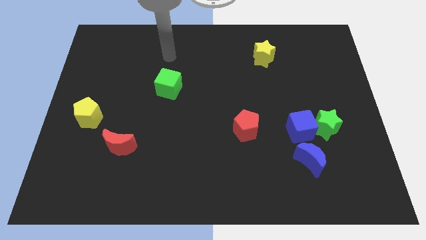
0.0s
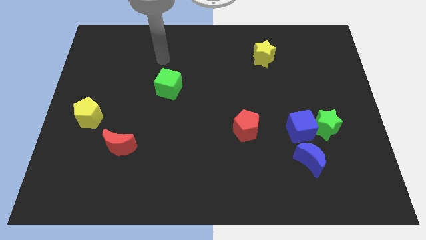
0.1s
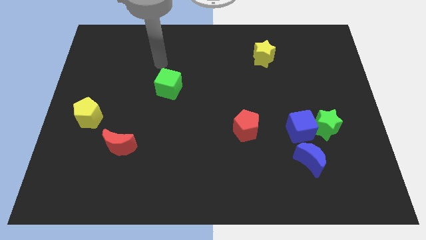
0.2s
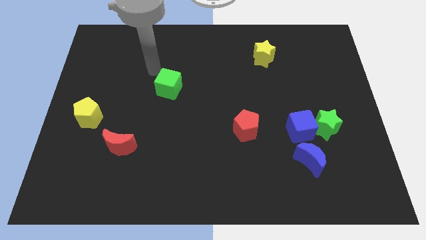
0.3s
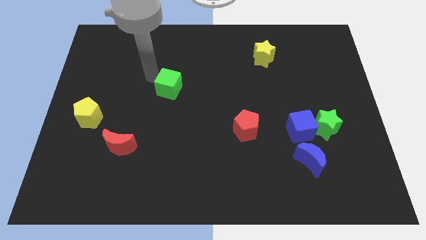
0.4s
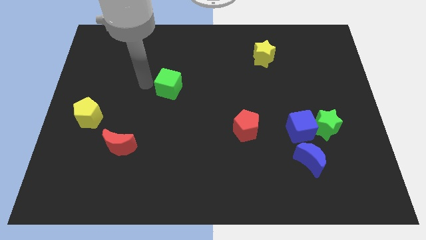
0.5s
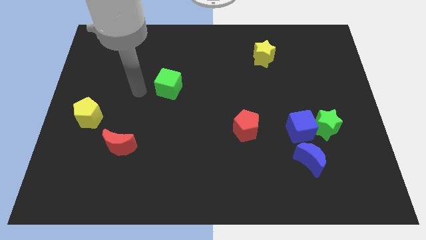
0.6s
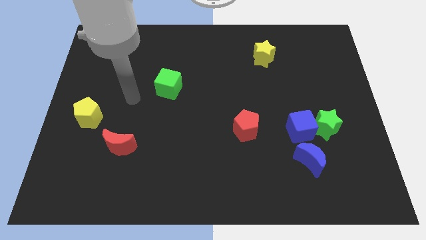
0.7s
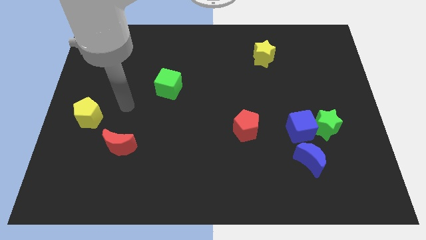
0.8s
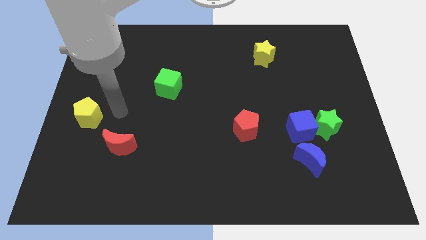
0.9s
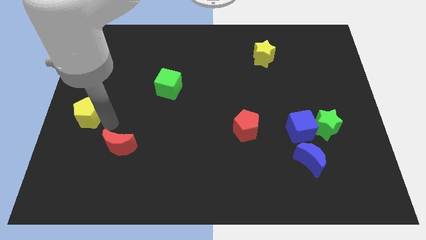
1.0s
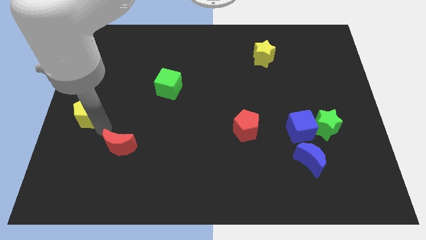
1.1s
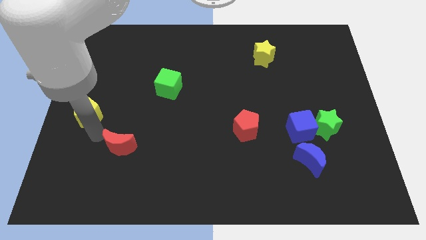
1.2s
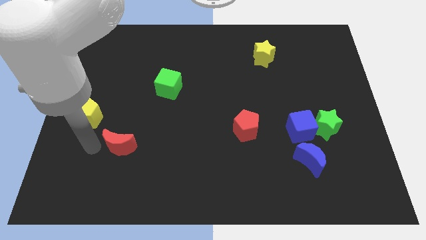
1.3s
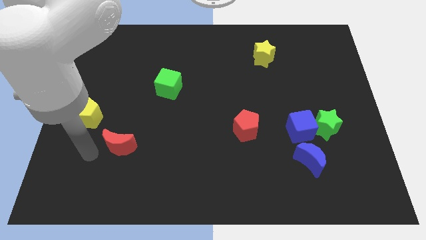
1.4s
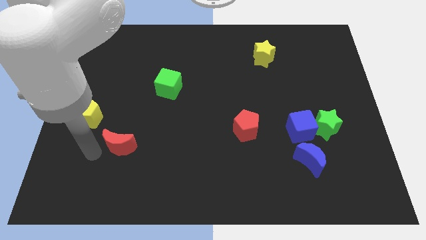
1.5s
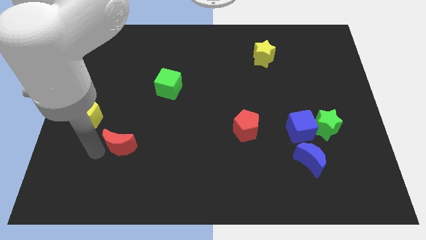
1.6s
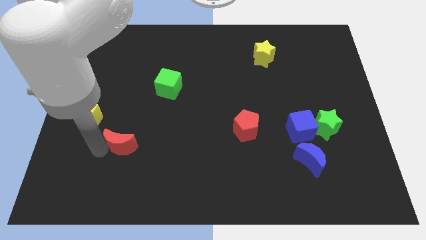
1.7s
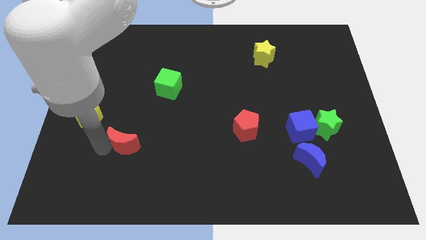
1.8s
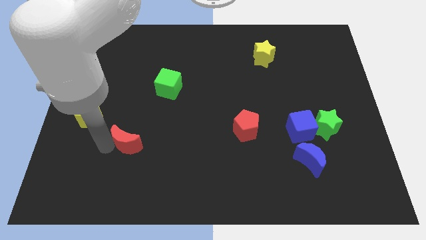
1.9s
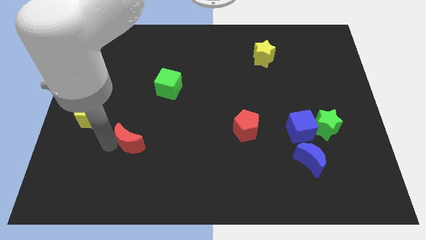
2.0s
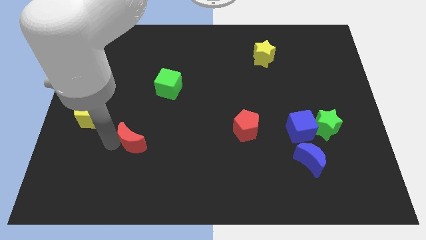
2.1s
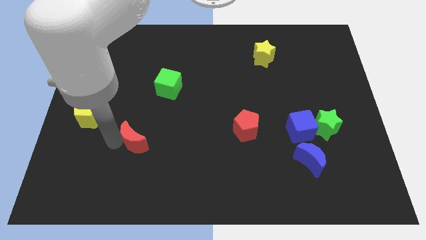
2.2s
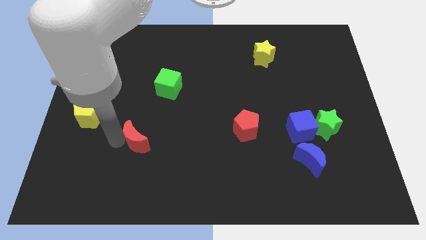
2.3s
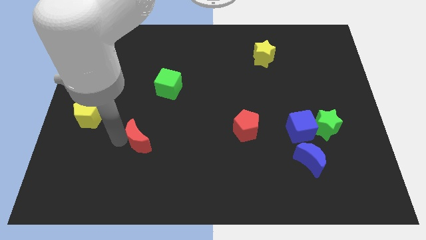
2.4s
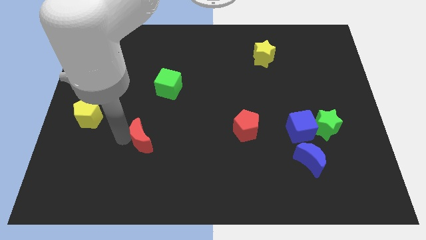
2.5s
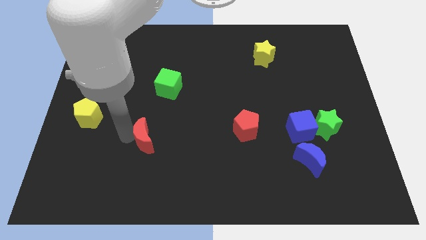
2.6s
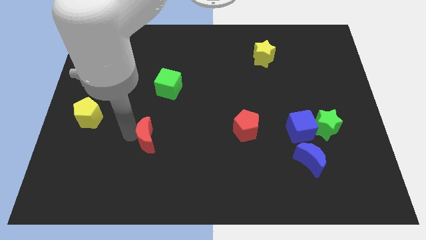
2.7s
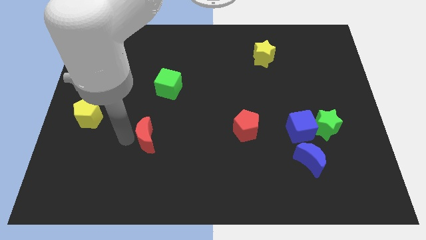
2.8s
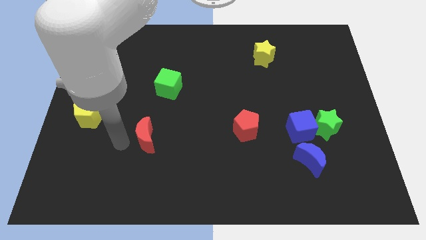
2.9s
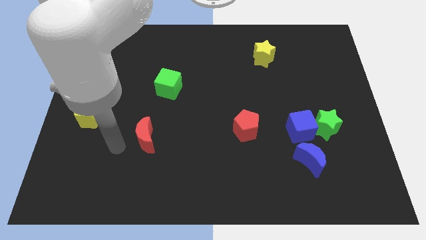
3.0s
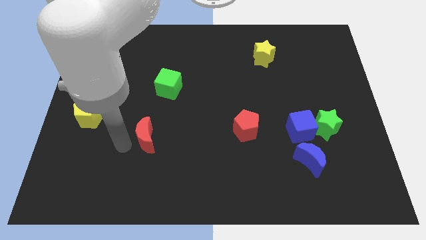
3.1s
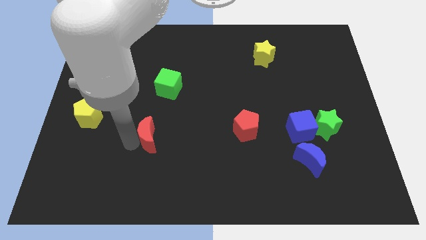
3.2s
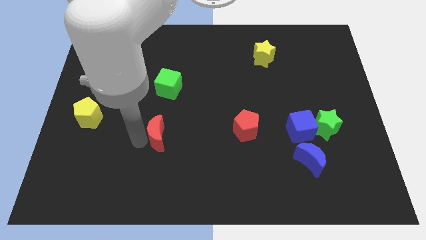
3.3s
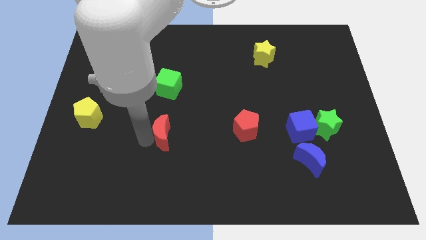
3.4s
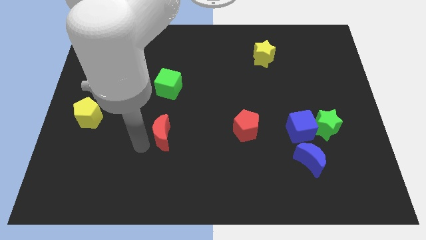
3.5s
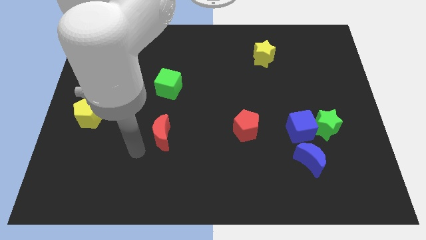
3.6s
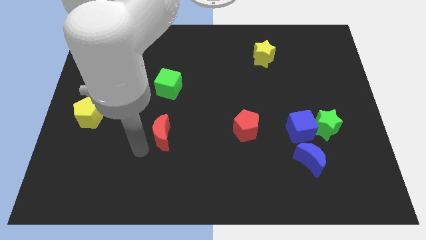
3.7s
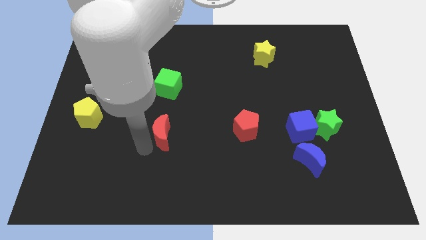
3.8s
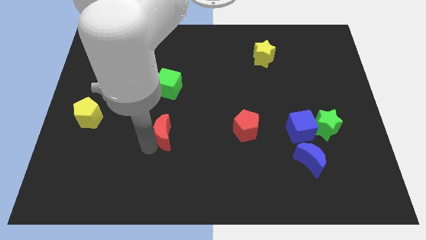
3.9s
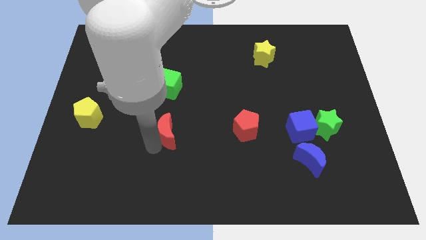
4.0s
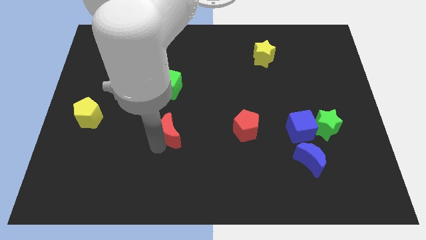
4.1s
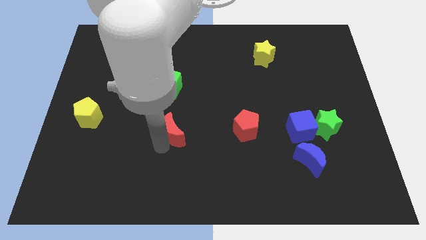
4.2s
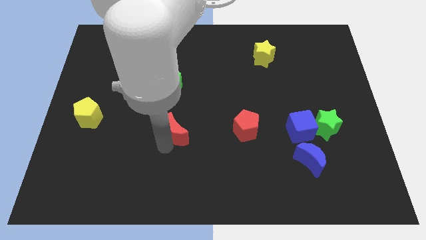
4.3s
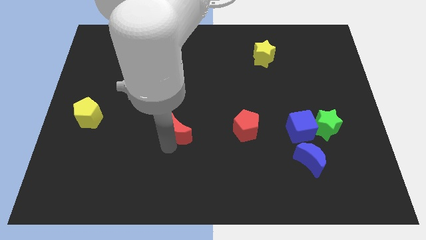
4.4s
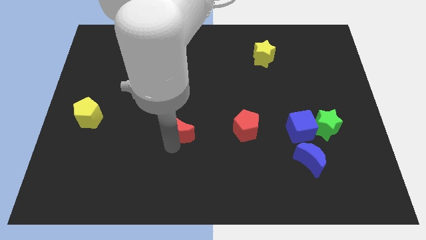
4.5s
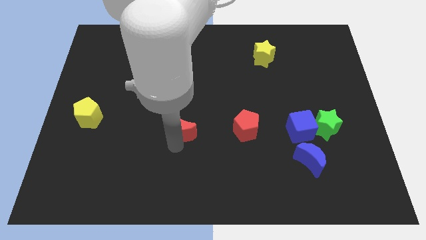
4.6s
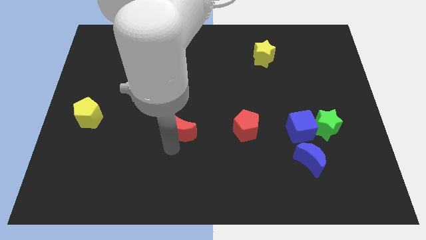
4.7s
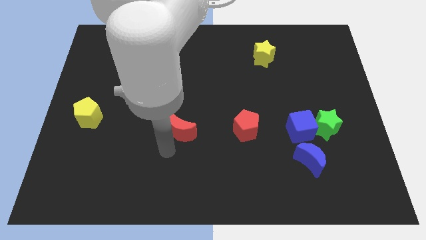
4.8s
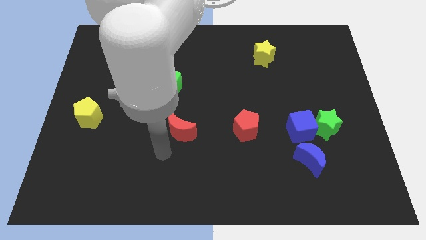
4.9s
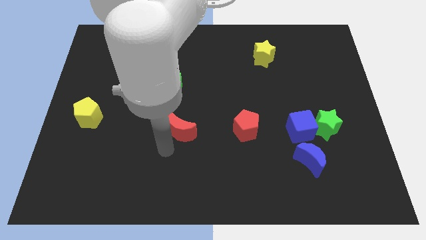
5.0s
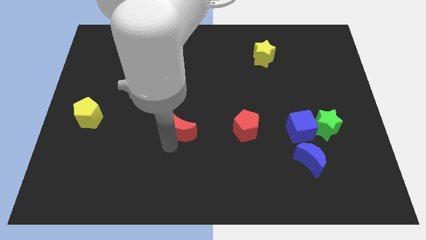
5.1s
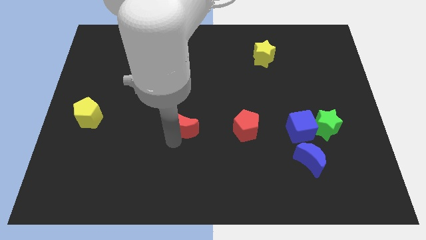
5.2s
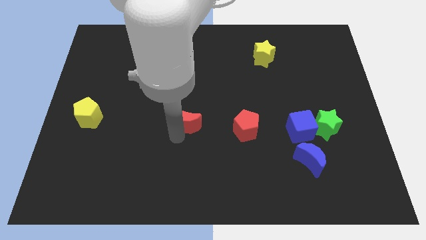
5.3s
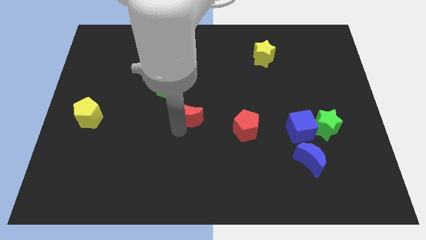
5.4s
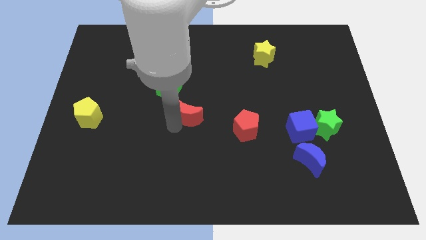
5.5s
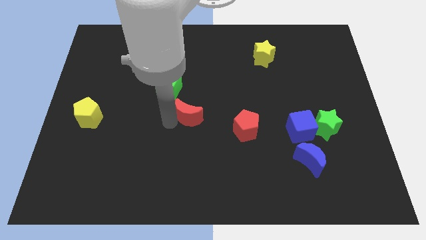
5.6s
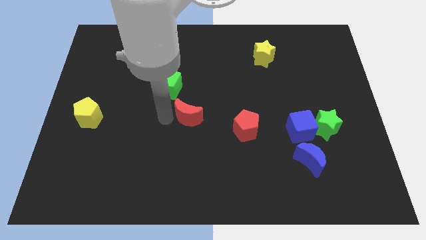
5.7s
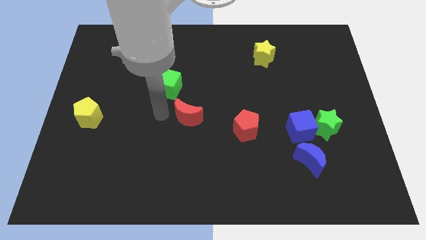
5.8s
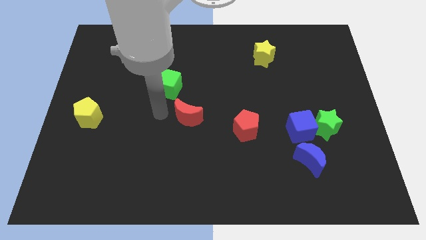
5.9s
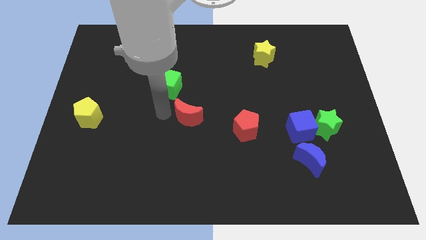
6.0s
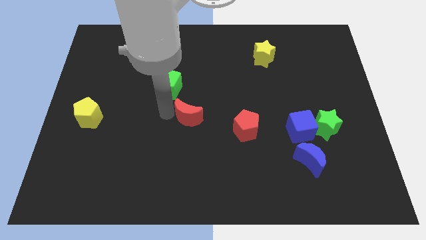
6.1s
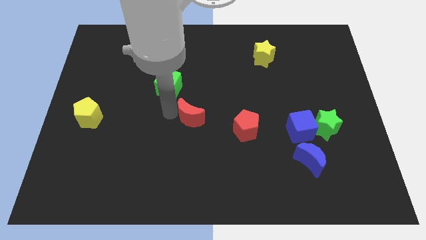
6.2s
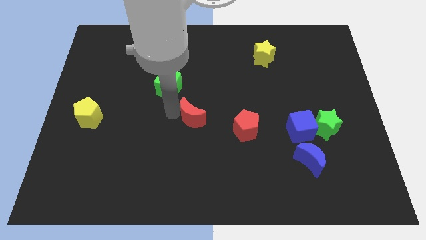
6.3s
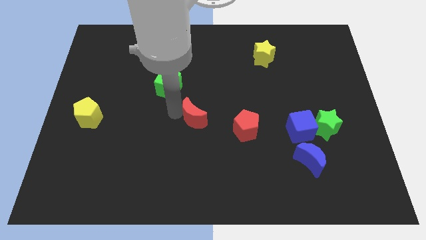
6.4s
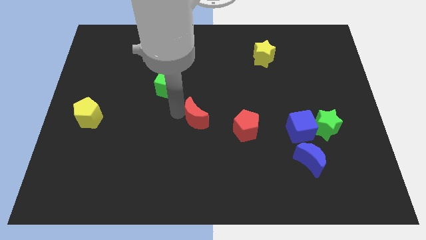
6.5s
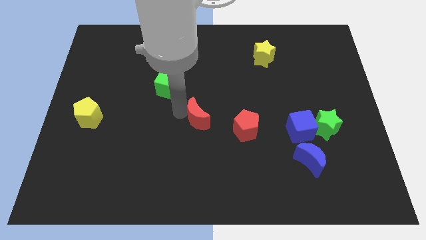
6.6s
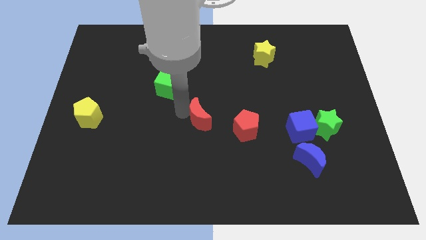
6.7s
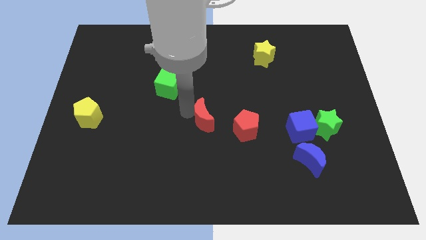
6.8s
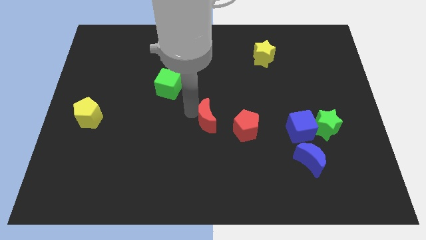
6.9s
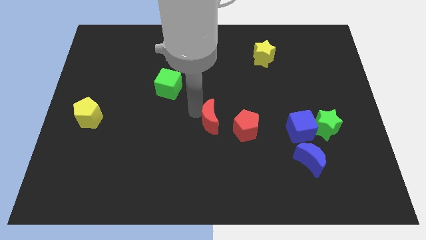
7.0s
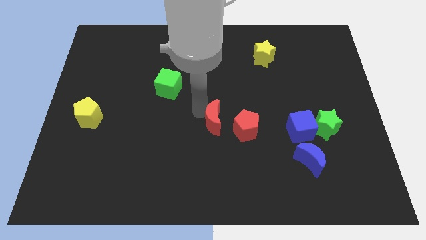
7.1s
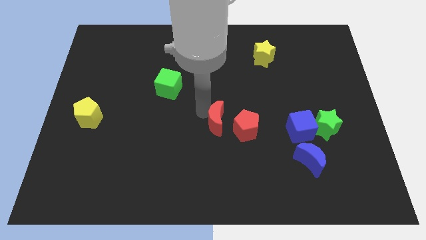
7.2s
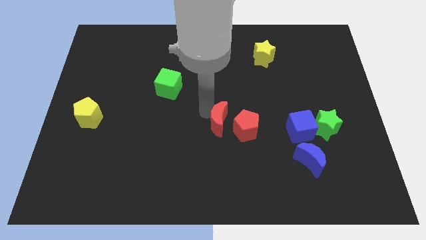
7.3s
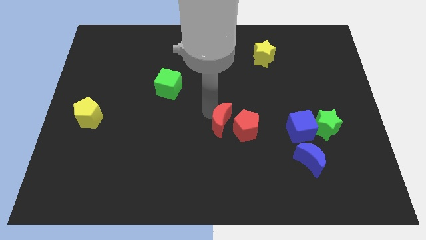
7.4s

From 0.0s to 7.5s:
slide the red moon close to the red pentagon

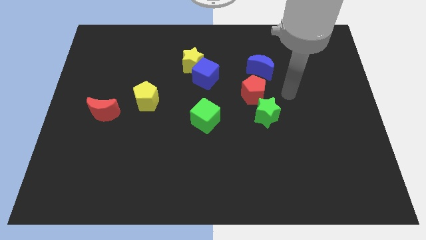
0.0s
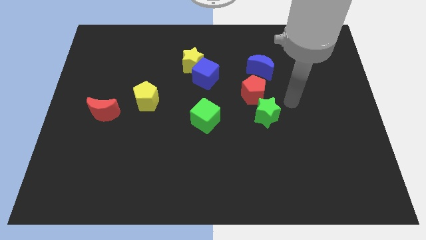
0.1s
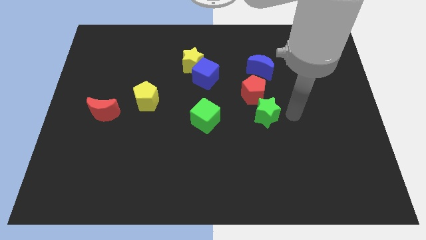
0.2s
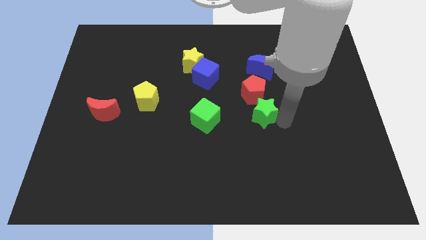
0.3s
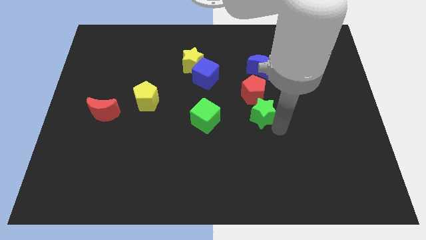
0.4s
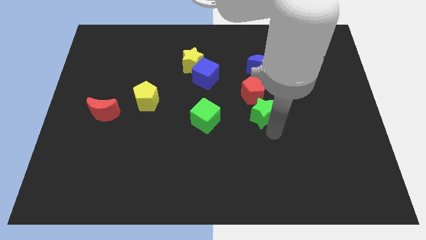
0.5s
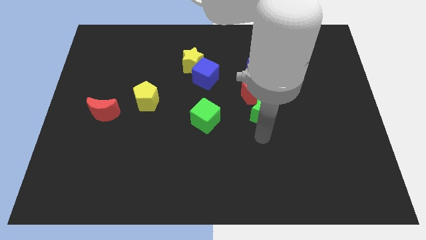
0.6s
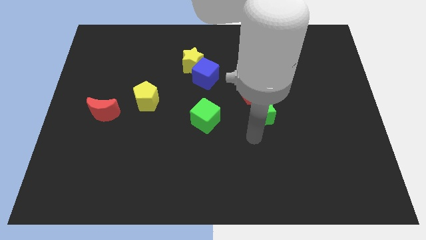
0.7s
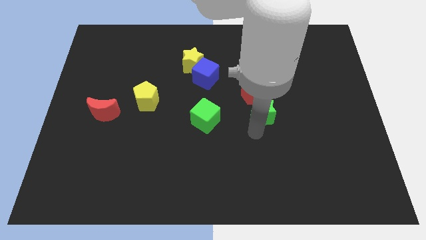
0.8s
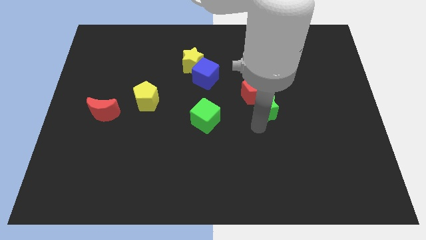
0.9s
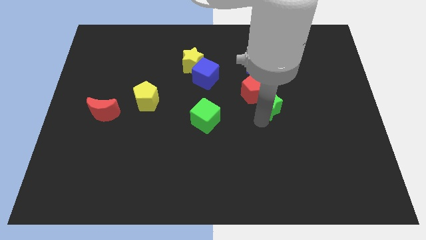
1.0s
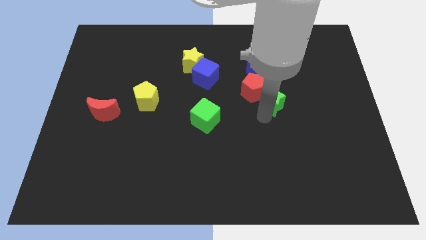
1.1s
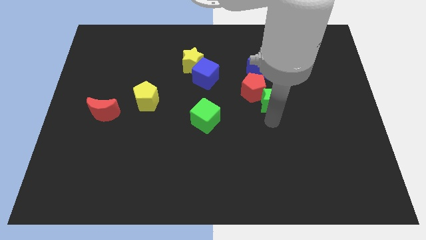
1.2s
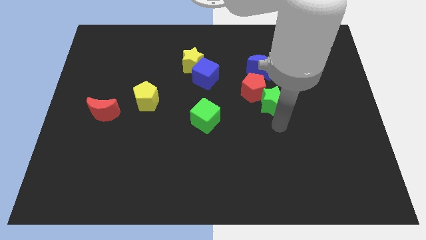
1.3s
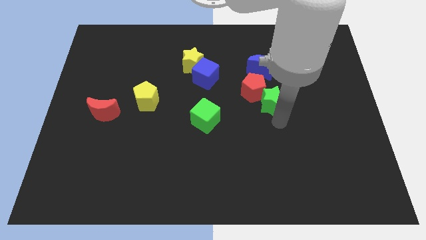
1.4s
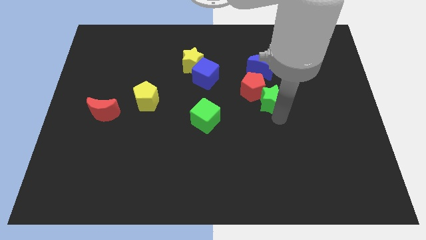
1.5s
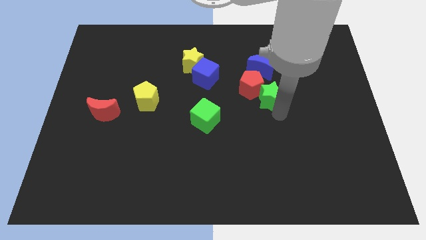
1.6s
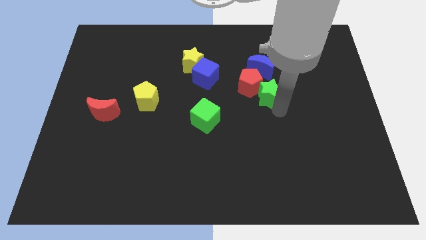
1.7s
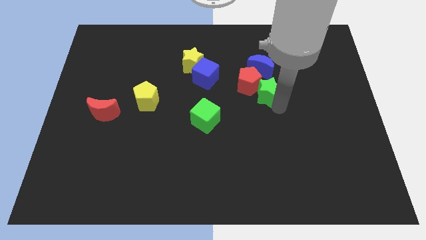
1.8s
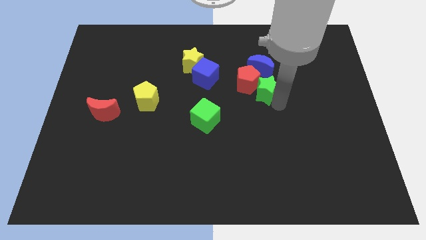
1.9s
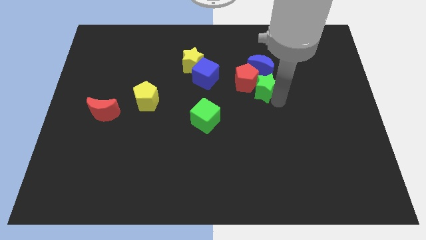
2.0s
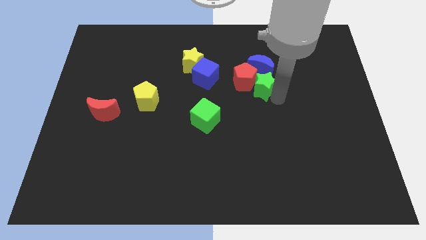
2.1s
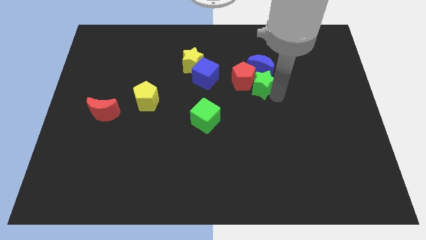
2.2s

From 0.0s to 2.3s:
put the green star close to the blue moon
